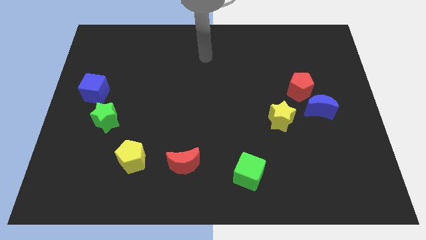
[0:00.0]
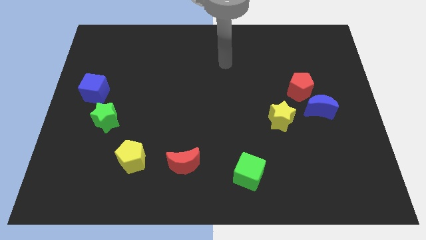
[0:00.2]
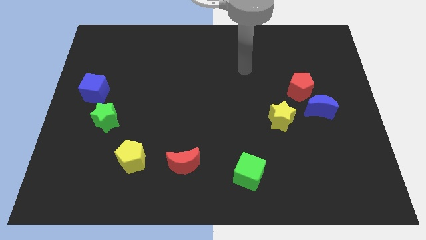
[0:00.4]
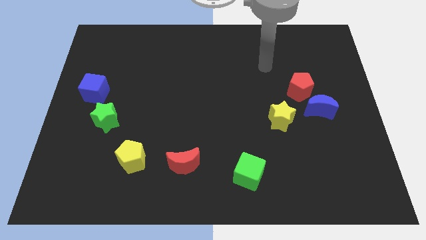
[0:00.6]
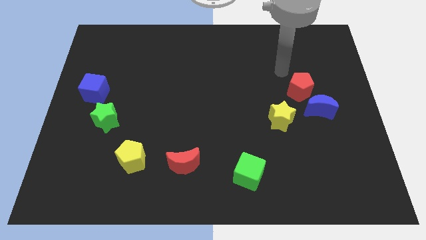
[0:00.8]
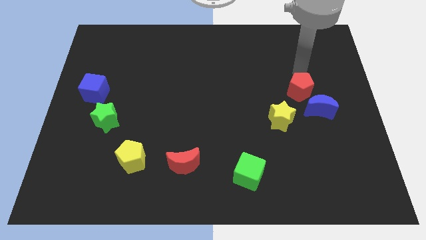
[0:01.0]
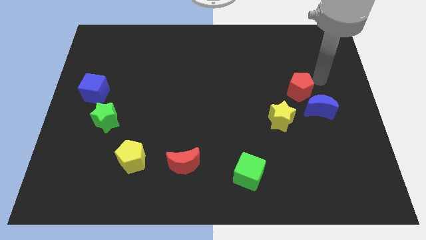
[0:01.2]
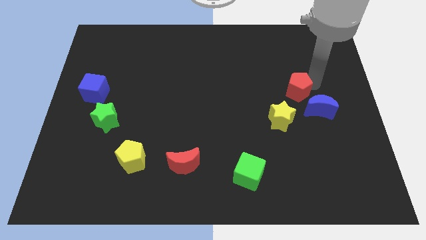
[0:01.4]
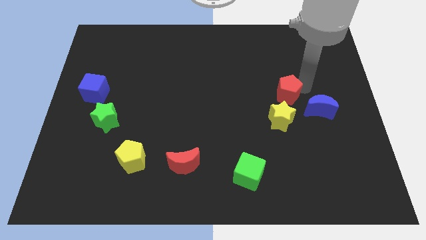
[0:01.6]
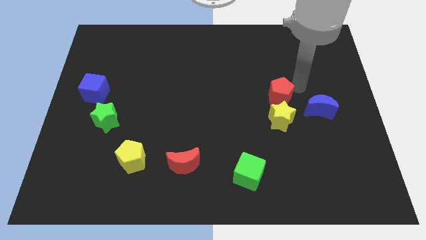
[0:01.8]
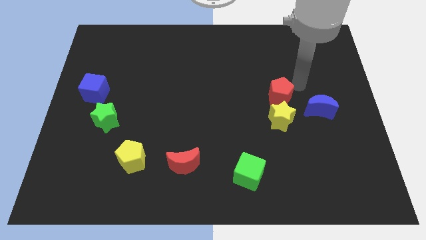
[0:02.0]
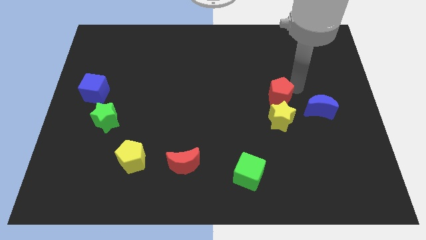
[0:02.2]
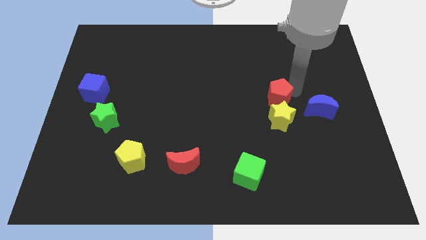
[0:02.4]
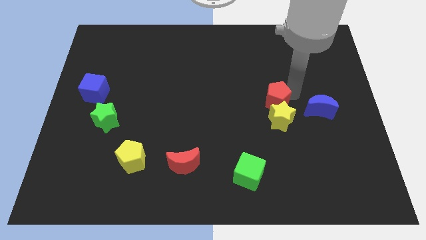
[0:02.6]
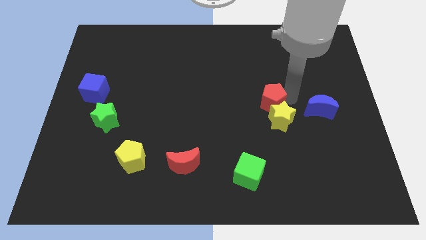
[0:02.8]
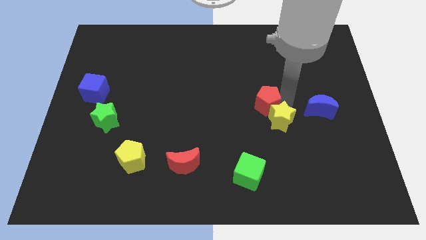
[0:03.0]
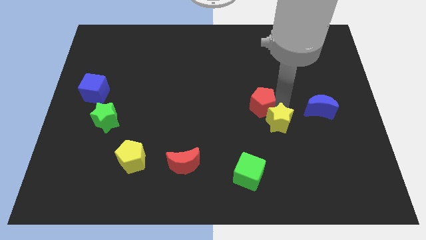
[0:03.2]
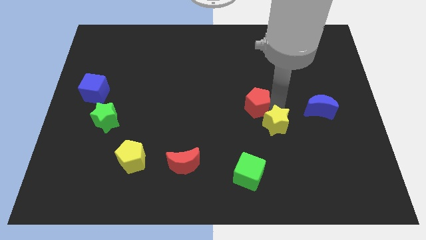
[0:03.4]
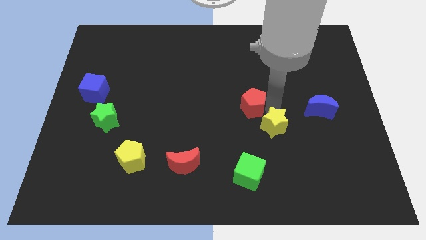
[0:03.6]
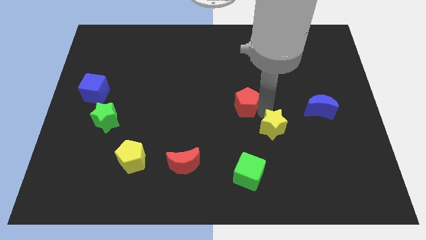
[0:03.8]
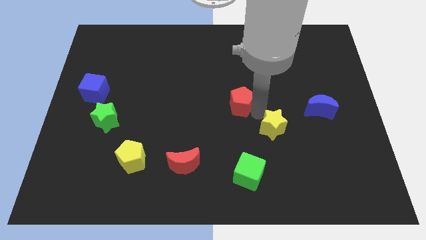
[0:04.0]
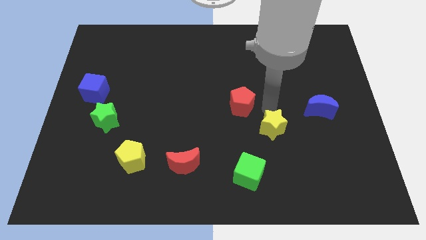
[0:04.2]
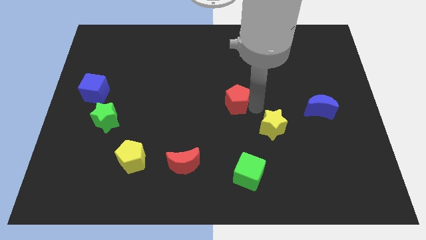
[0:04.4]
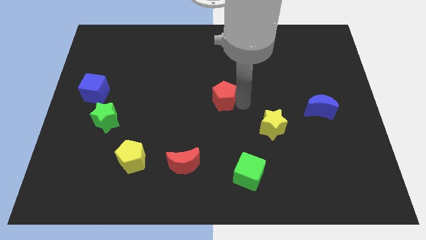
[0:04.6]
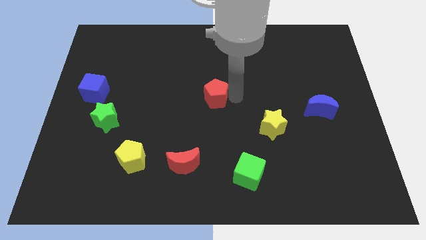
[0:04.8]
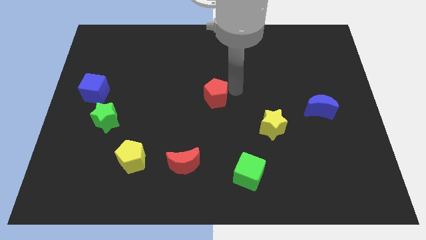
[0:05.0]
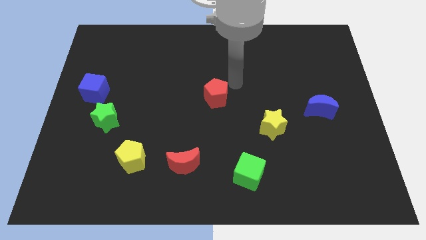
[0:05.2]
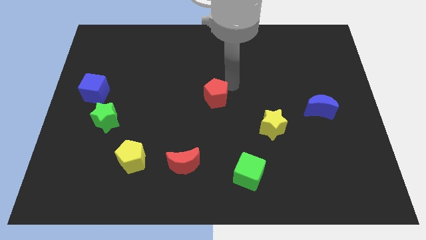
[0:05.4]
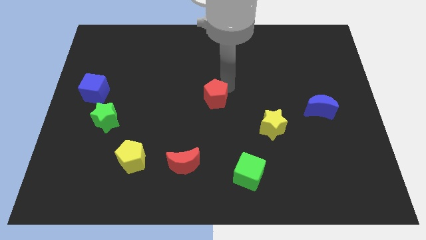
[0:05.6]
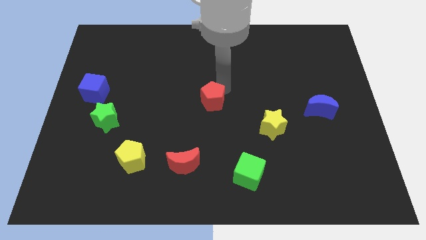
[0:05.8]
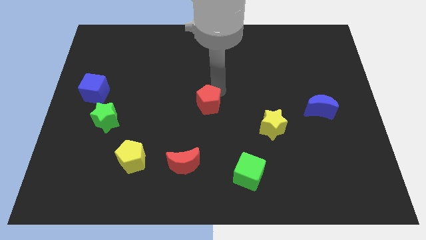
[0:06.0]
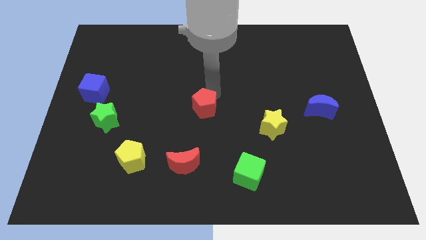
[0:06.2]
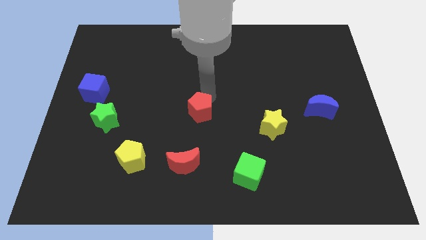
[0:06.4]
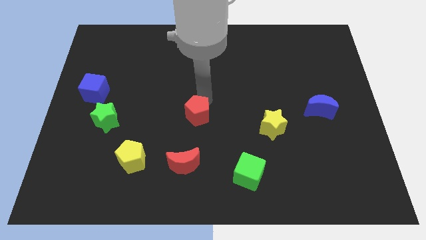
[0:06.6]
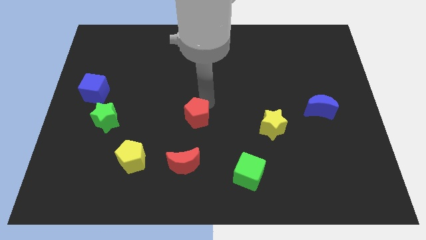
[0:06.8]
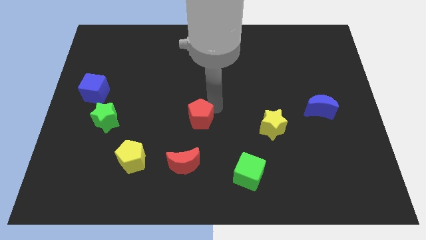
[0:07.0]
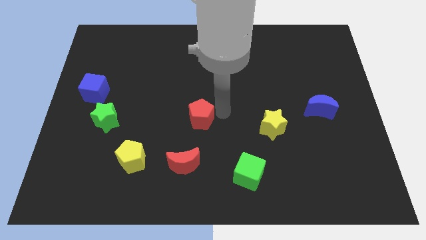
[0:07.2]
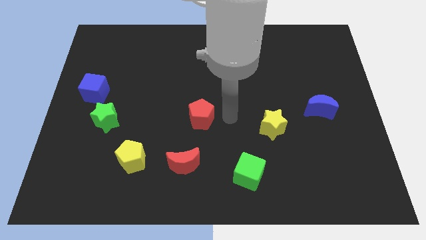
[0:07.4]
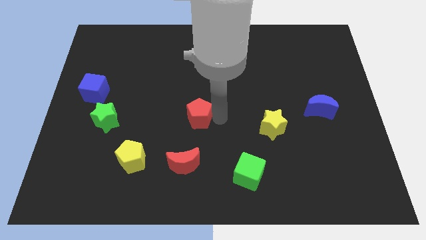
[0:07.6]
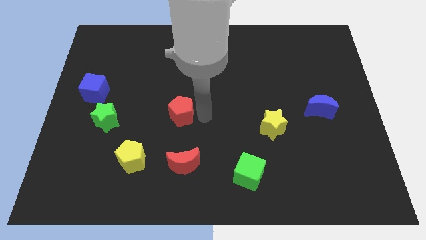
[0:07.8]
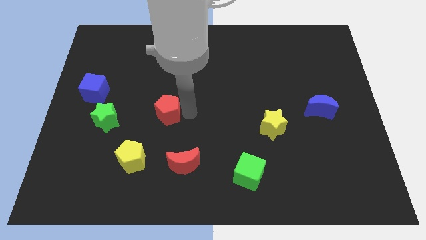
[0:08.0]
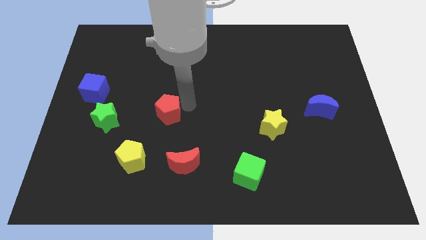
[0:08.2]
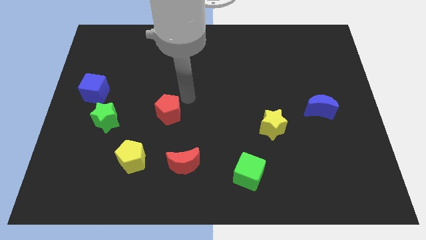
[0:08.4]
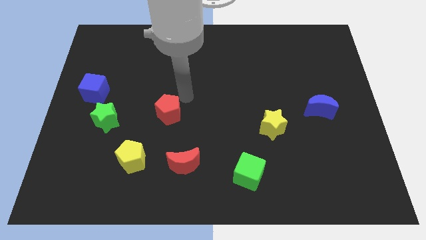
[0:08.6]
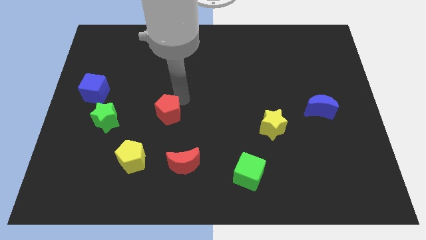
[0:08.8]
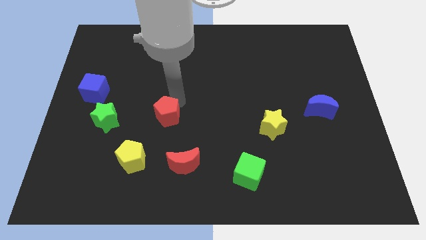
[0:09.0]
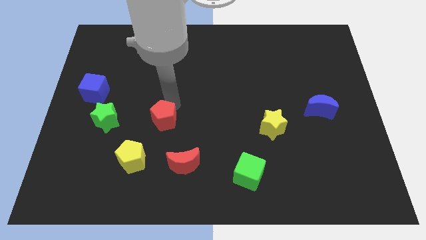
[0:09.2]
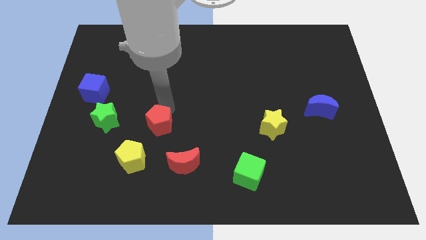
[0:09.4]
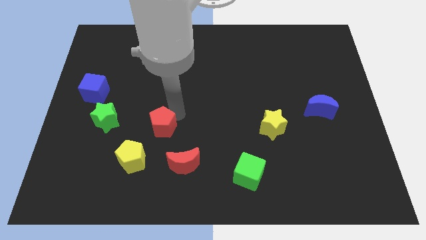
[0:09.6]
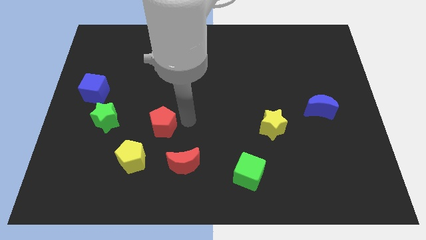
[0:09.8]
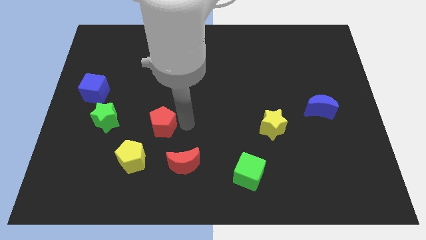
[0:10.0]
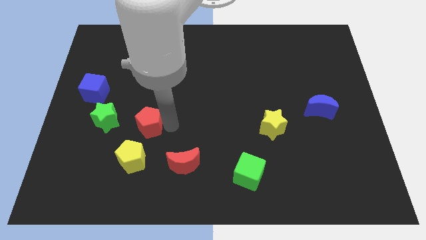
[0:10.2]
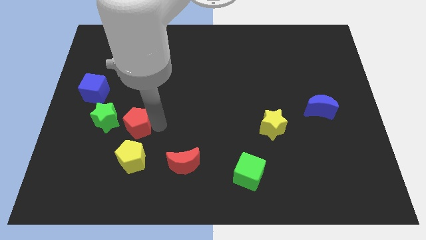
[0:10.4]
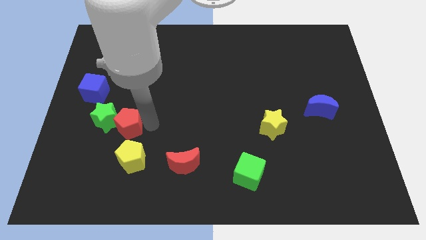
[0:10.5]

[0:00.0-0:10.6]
put the red pentagon to the top left side of the yellow pentagon

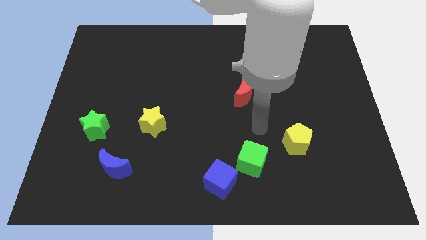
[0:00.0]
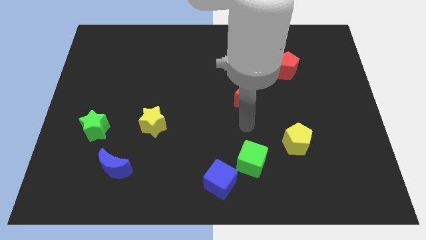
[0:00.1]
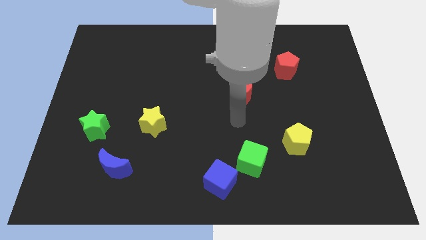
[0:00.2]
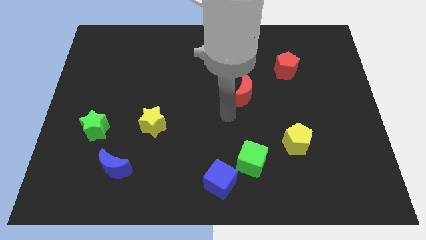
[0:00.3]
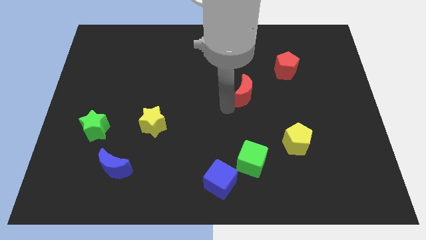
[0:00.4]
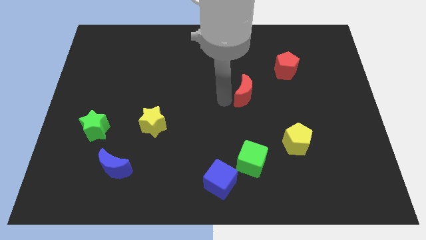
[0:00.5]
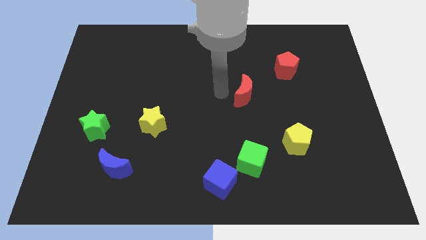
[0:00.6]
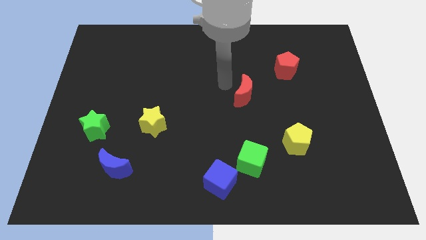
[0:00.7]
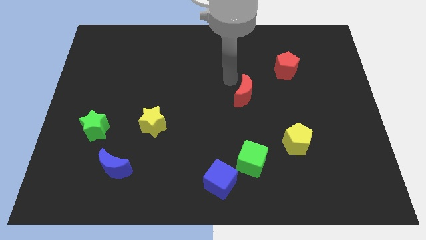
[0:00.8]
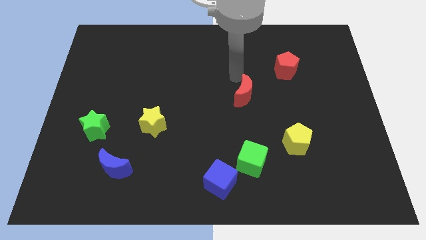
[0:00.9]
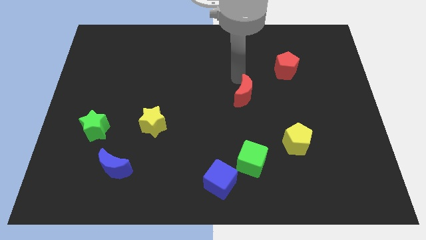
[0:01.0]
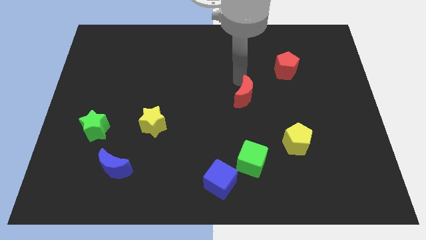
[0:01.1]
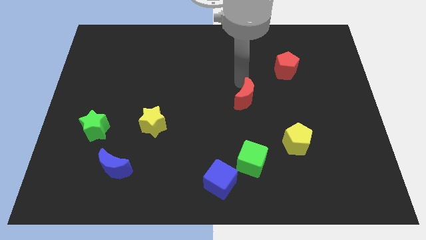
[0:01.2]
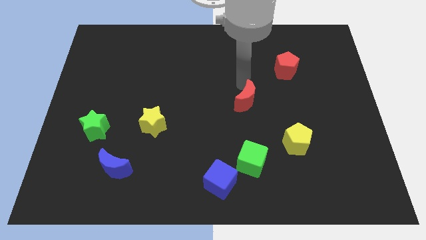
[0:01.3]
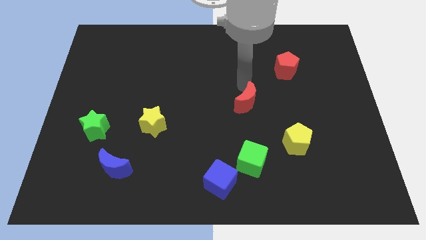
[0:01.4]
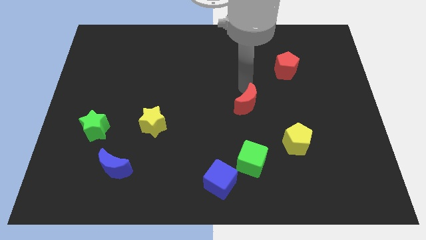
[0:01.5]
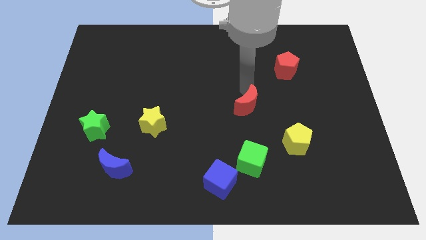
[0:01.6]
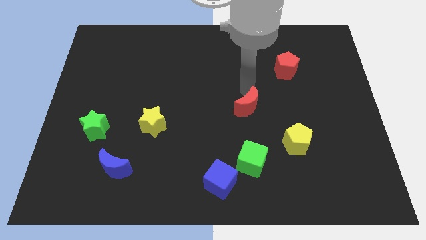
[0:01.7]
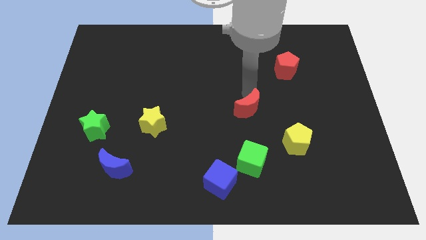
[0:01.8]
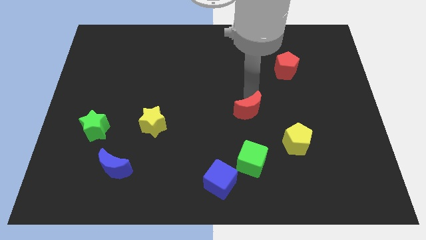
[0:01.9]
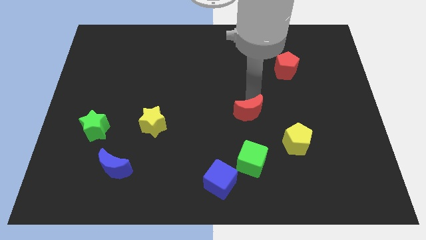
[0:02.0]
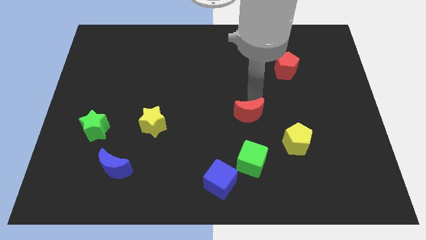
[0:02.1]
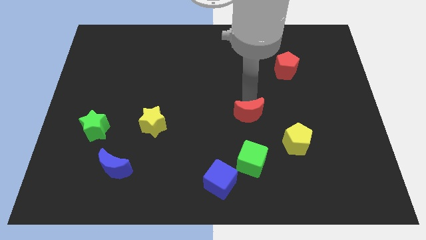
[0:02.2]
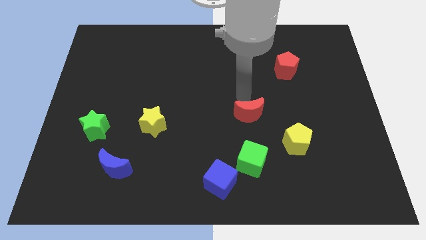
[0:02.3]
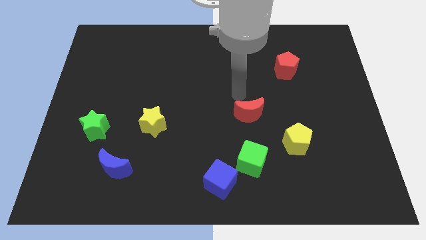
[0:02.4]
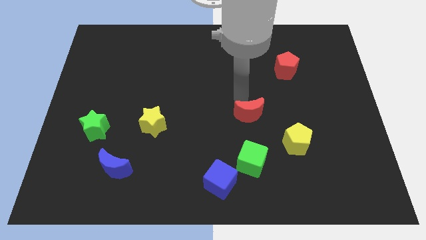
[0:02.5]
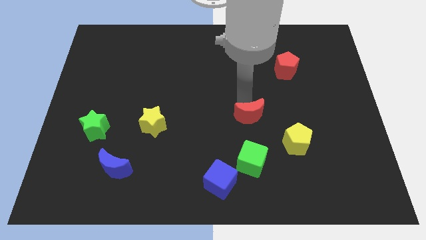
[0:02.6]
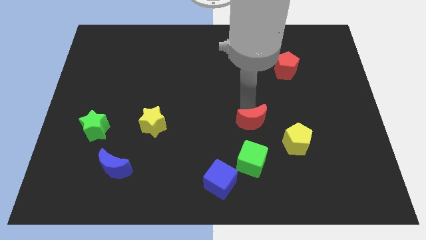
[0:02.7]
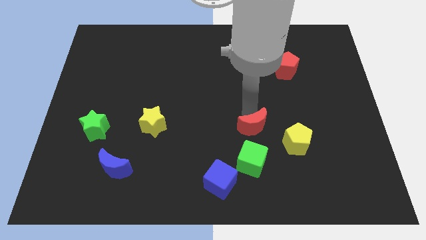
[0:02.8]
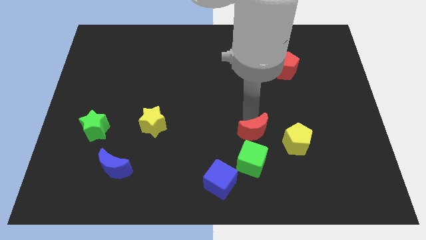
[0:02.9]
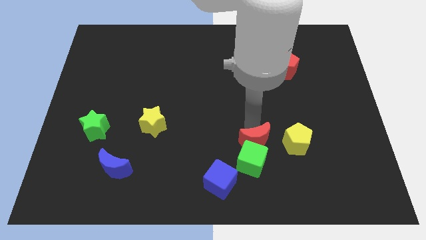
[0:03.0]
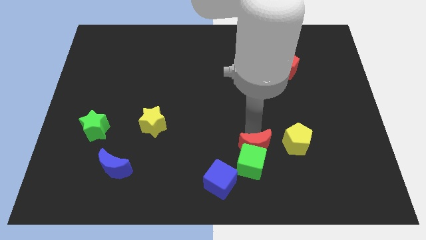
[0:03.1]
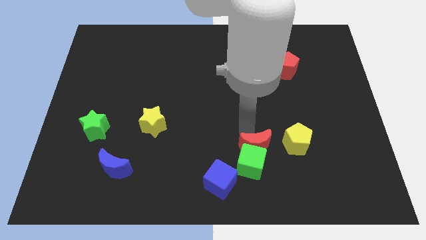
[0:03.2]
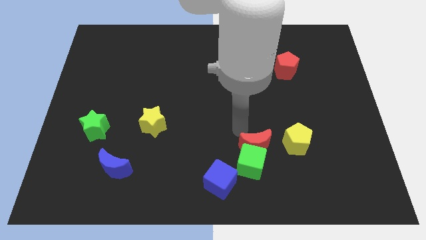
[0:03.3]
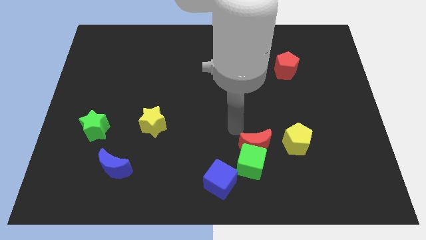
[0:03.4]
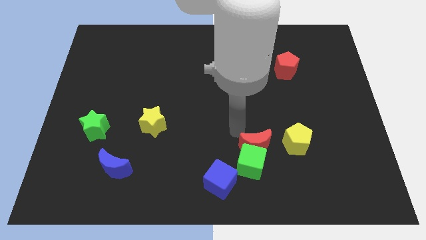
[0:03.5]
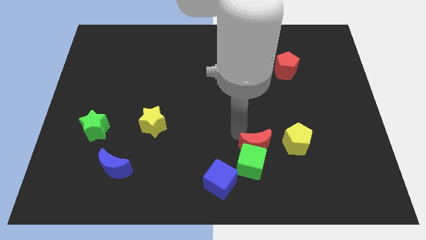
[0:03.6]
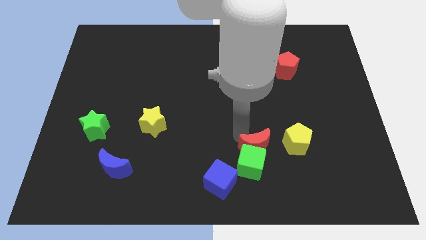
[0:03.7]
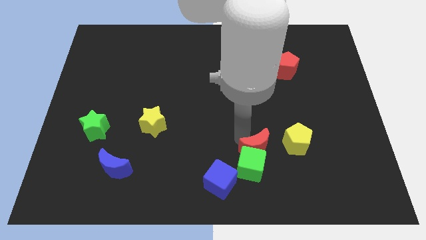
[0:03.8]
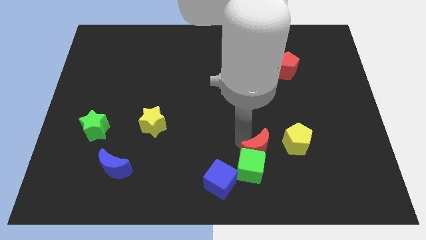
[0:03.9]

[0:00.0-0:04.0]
move the red moon diagonally down and to the left of the yellow pentagon
